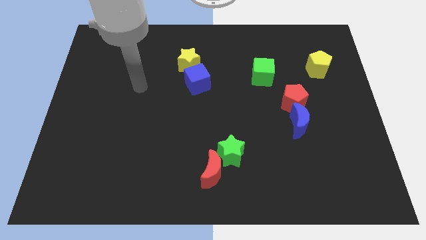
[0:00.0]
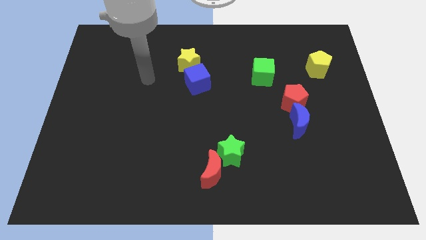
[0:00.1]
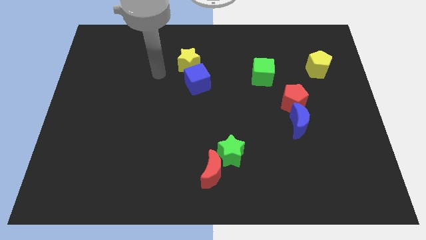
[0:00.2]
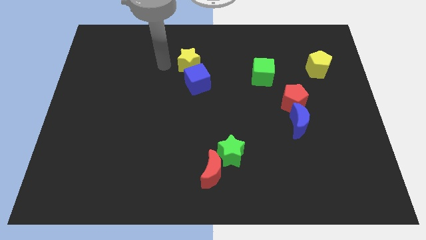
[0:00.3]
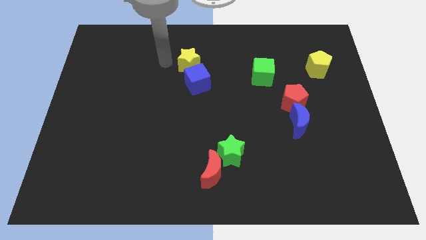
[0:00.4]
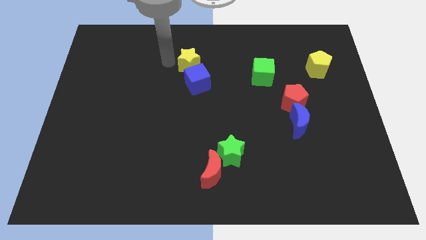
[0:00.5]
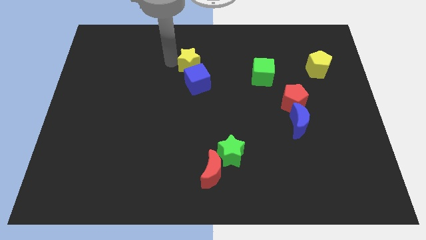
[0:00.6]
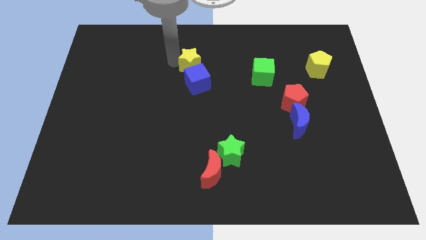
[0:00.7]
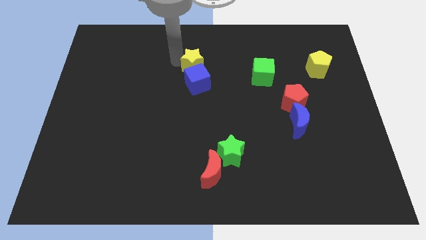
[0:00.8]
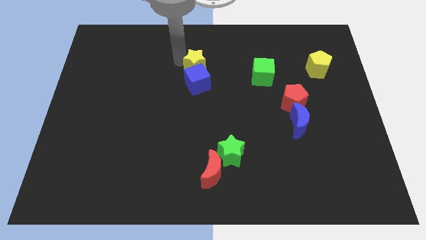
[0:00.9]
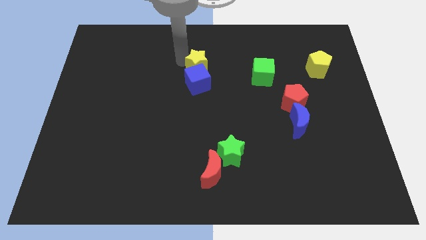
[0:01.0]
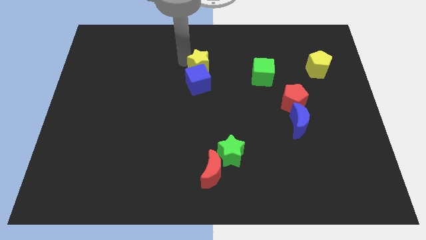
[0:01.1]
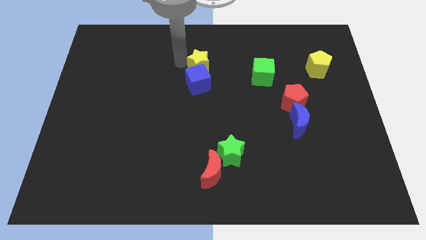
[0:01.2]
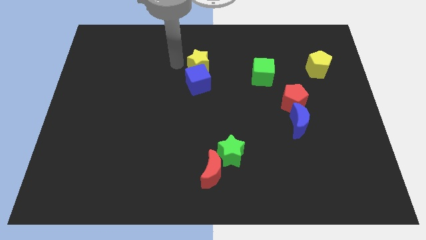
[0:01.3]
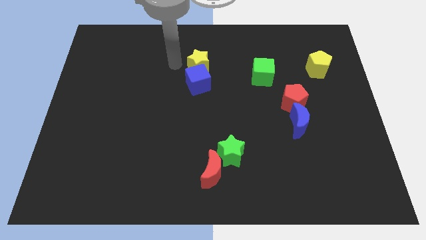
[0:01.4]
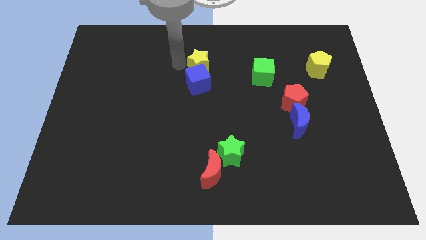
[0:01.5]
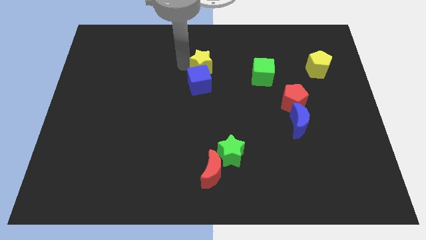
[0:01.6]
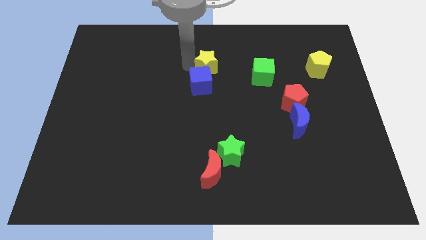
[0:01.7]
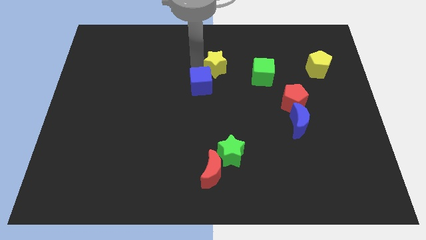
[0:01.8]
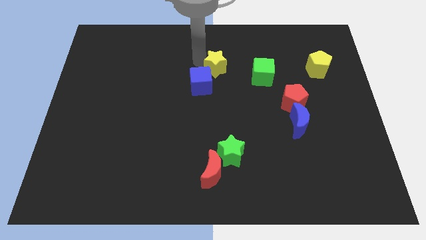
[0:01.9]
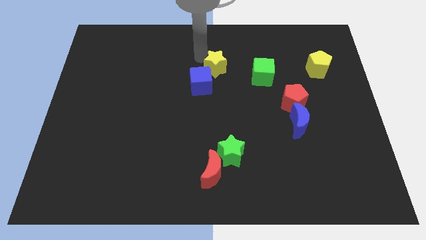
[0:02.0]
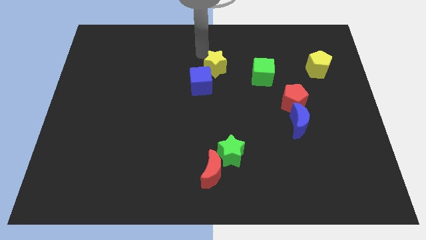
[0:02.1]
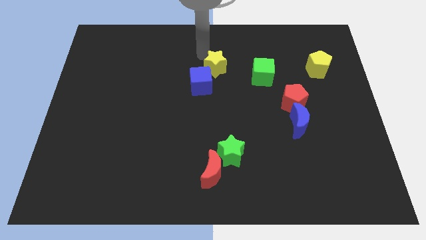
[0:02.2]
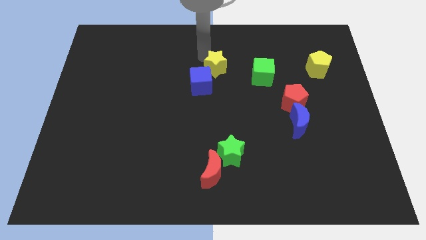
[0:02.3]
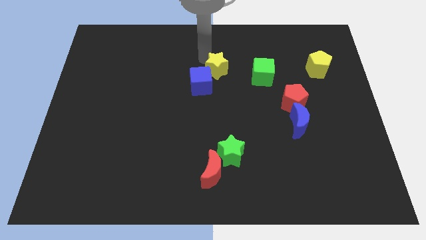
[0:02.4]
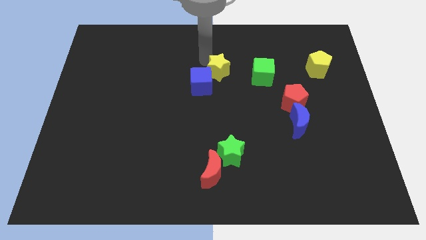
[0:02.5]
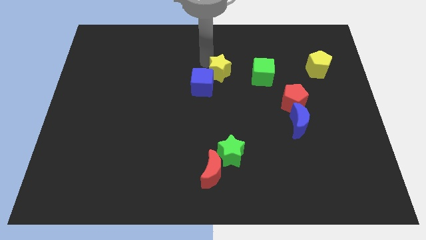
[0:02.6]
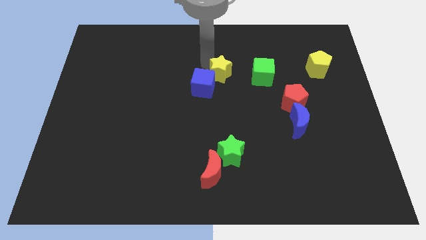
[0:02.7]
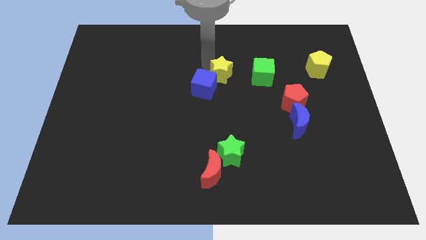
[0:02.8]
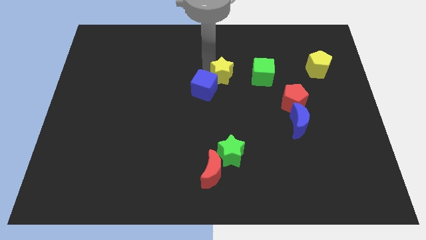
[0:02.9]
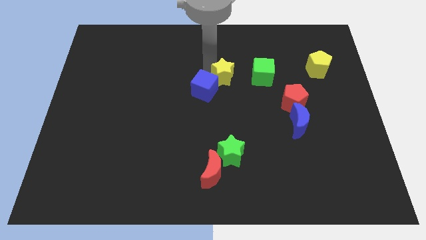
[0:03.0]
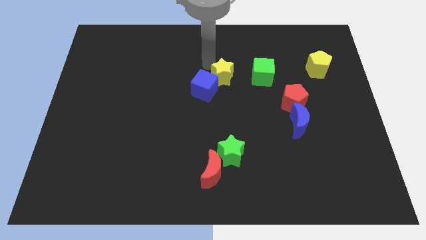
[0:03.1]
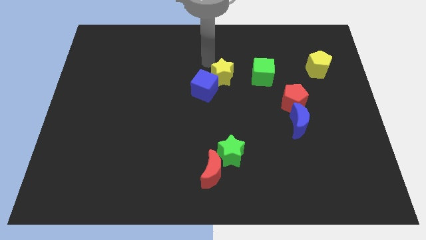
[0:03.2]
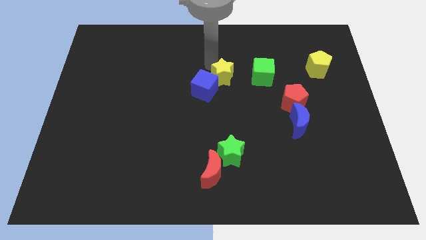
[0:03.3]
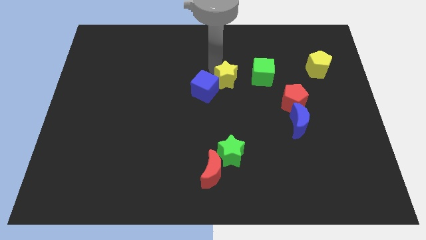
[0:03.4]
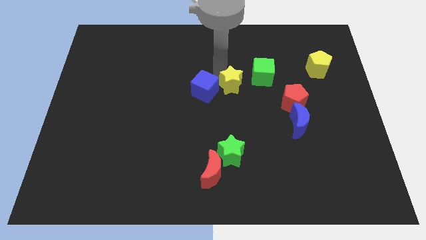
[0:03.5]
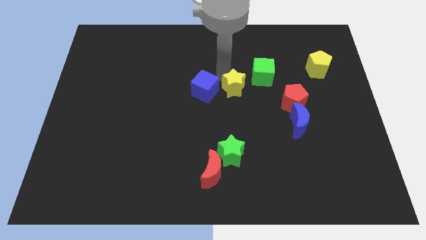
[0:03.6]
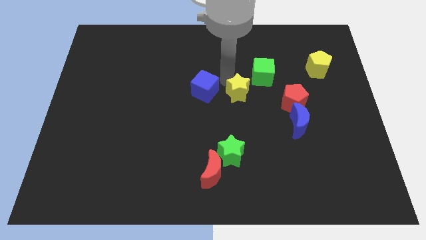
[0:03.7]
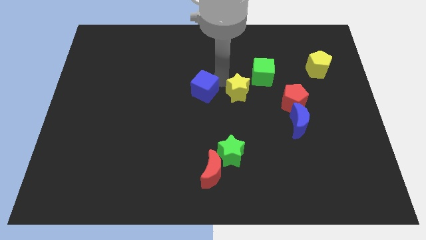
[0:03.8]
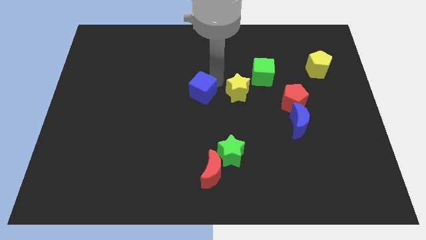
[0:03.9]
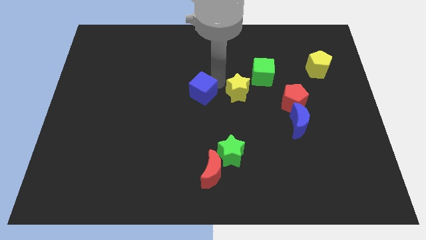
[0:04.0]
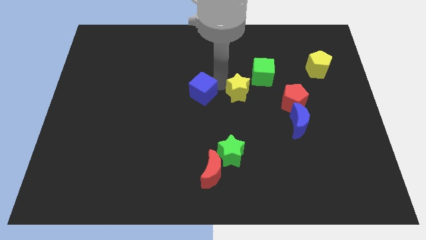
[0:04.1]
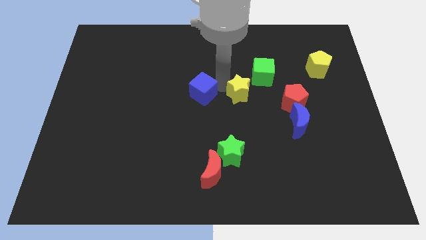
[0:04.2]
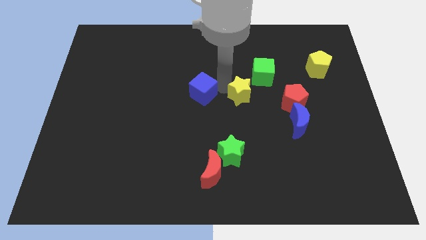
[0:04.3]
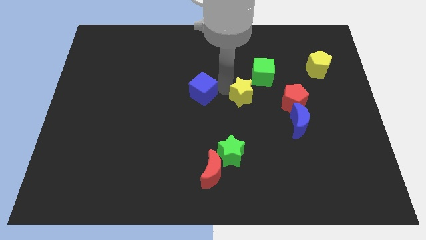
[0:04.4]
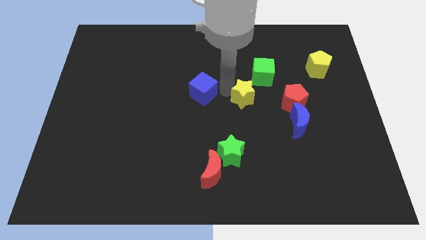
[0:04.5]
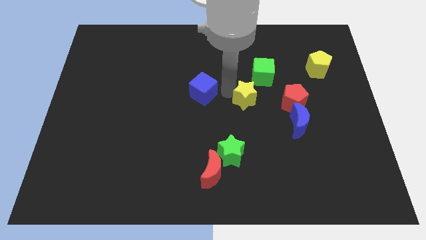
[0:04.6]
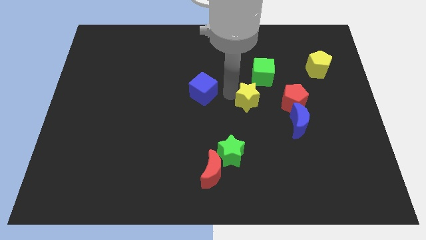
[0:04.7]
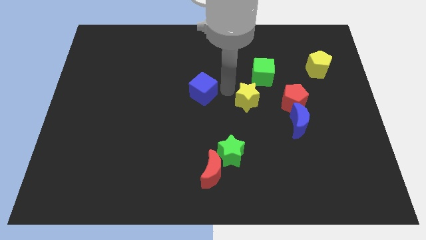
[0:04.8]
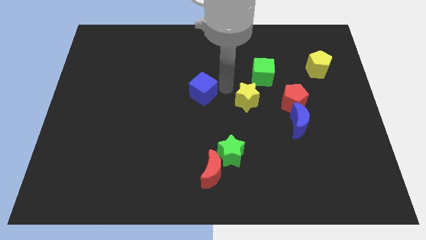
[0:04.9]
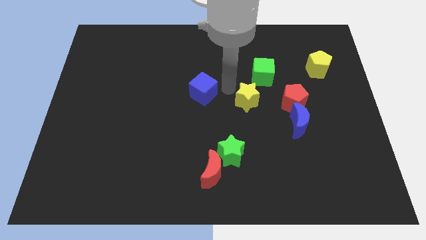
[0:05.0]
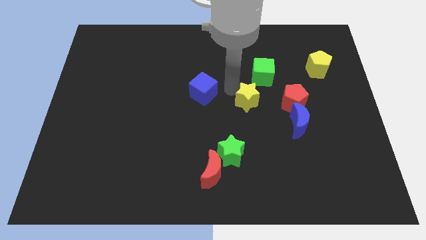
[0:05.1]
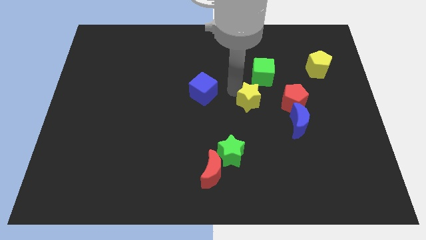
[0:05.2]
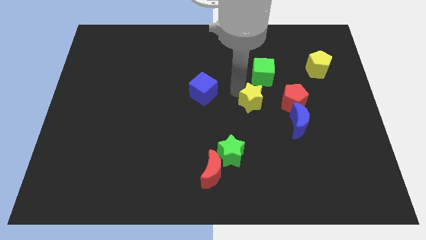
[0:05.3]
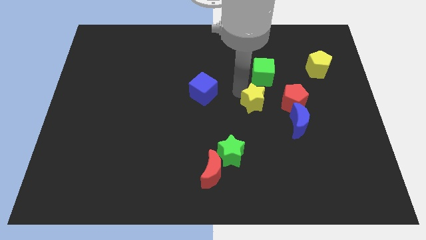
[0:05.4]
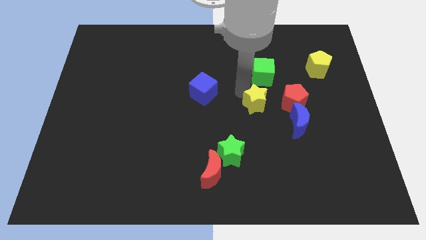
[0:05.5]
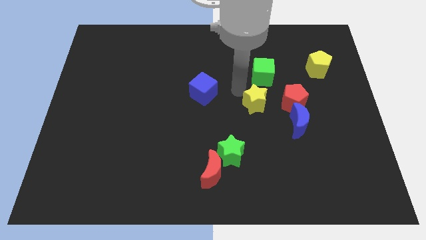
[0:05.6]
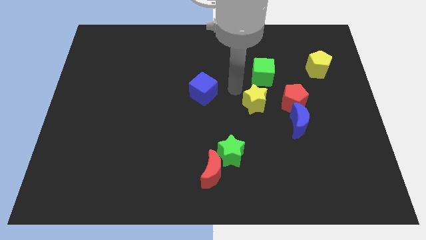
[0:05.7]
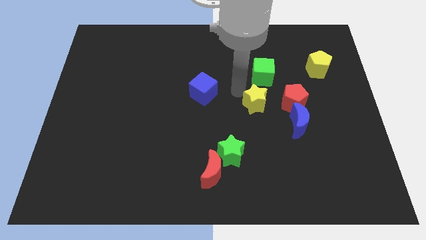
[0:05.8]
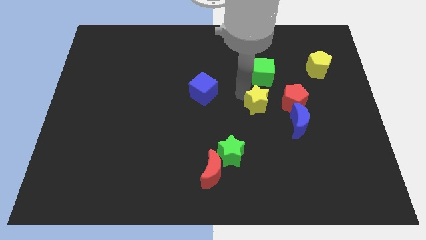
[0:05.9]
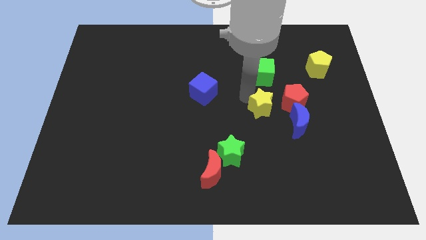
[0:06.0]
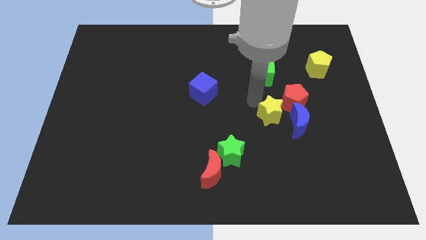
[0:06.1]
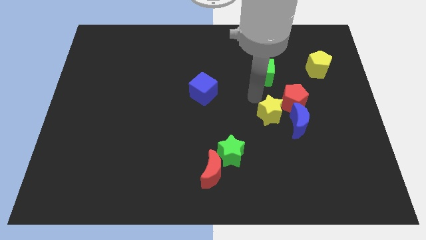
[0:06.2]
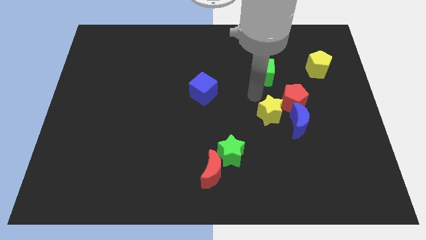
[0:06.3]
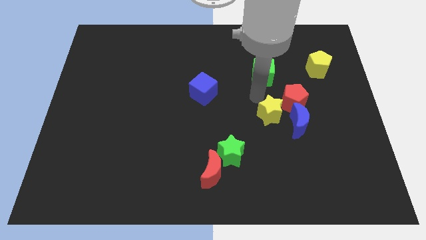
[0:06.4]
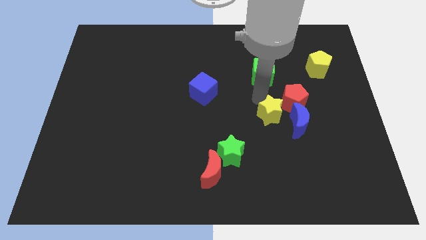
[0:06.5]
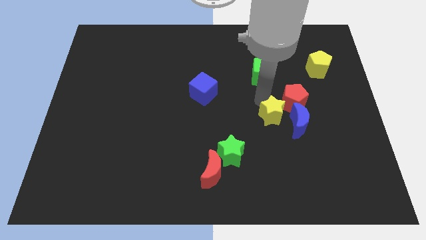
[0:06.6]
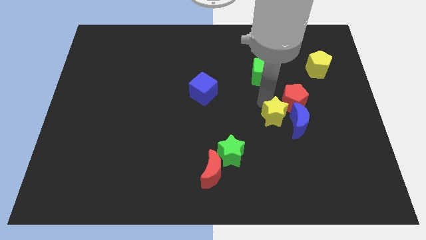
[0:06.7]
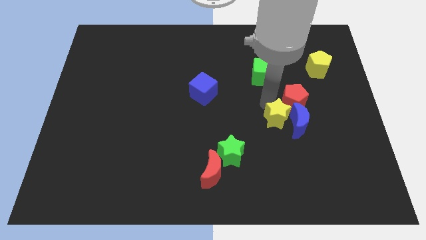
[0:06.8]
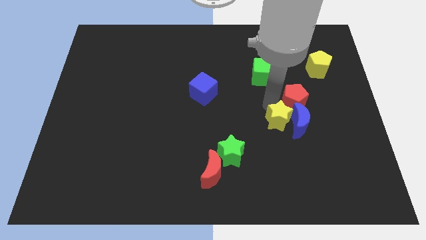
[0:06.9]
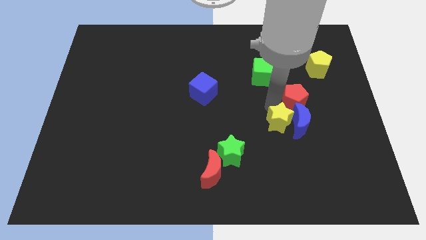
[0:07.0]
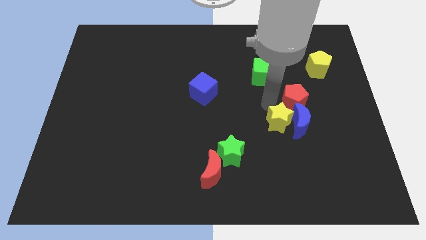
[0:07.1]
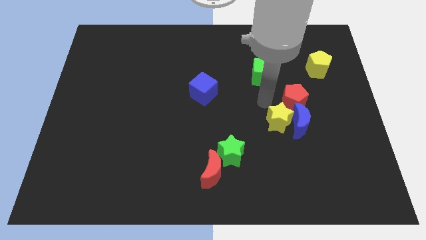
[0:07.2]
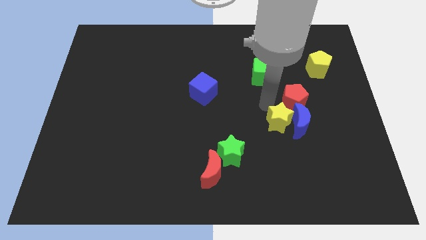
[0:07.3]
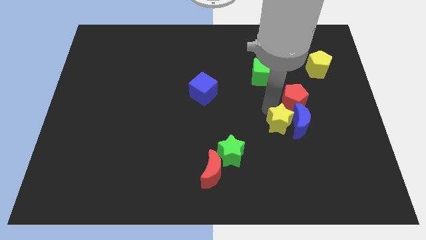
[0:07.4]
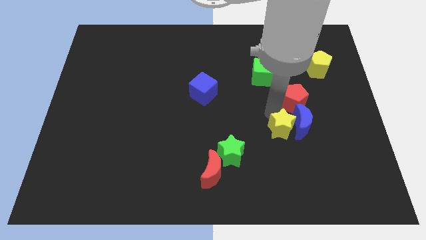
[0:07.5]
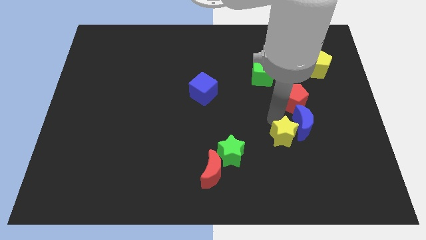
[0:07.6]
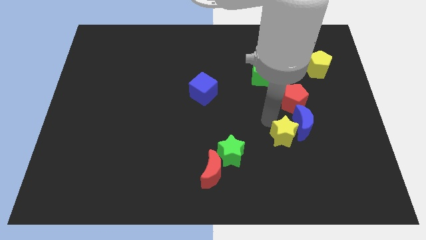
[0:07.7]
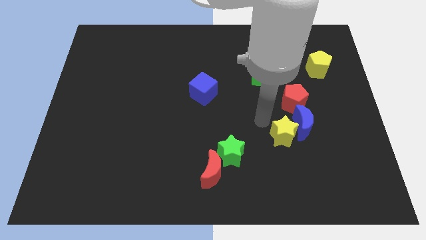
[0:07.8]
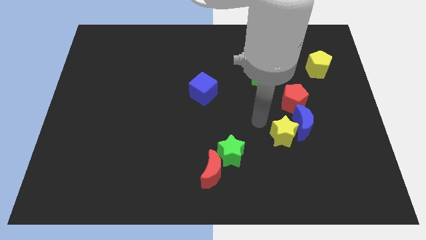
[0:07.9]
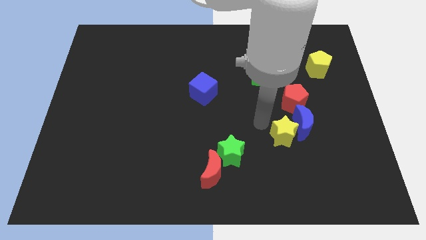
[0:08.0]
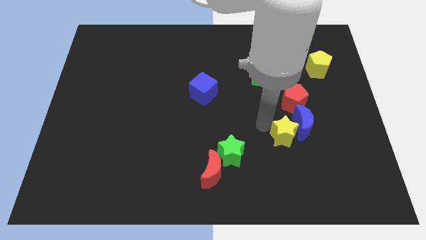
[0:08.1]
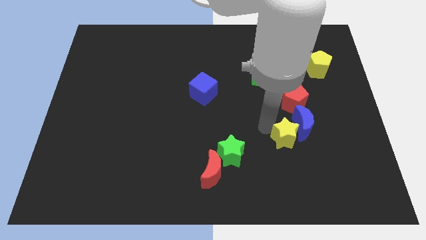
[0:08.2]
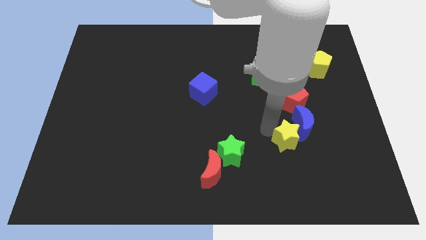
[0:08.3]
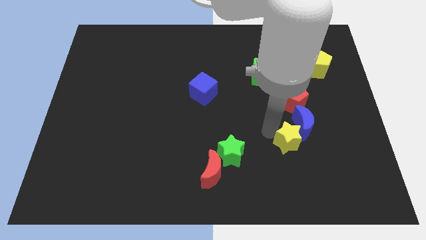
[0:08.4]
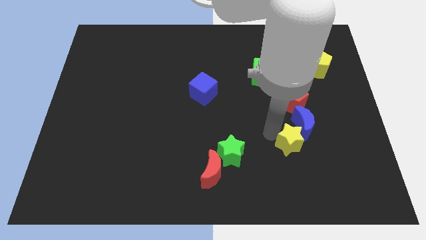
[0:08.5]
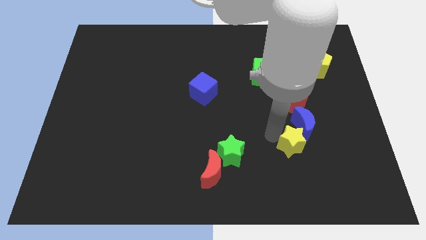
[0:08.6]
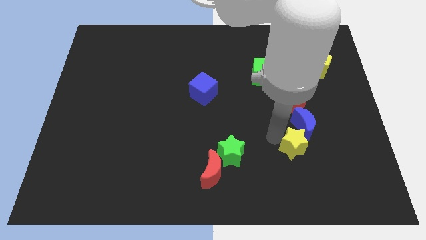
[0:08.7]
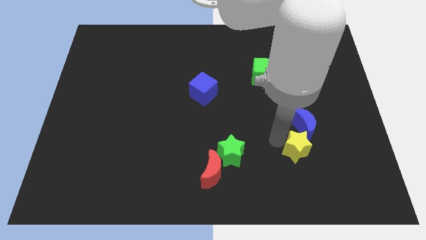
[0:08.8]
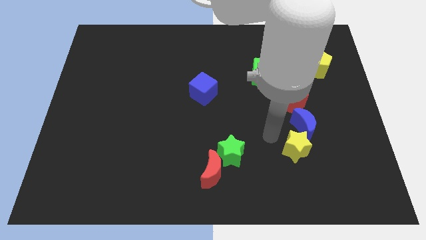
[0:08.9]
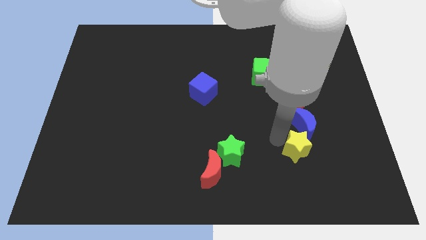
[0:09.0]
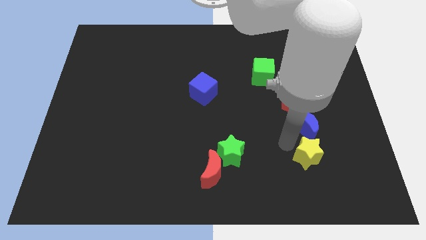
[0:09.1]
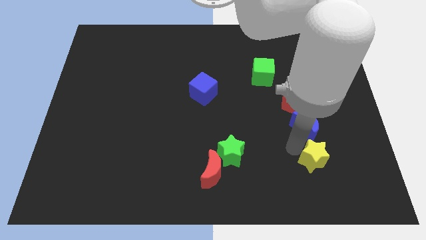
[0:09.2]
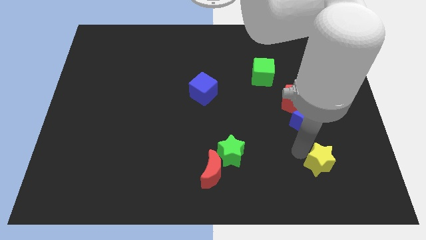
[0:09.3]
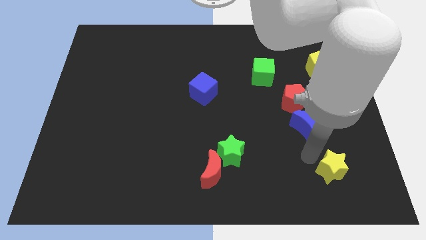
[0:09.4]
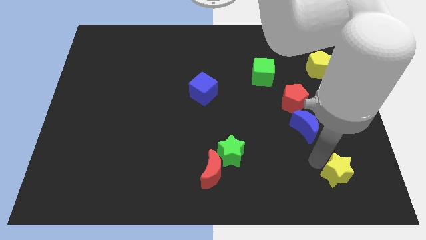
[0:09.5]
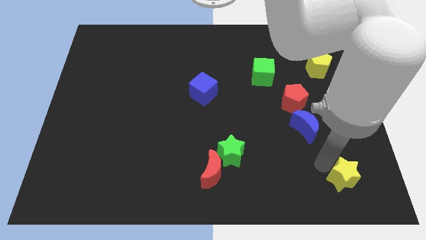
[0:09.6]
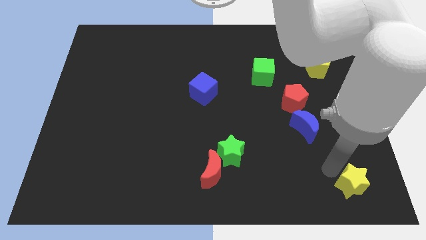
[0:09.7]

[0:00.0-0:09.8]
put the yellow star to the bottom right
